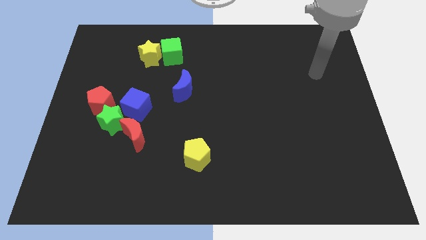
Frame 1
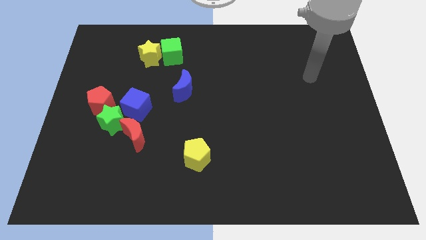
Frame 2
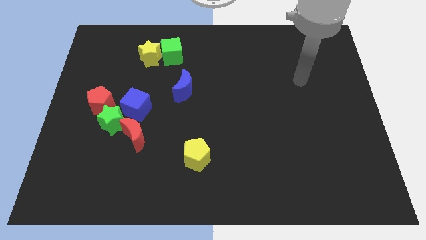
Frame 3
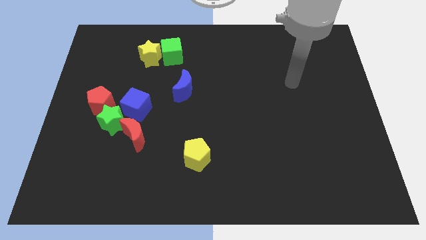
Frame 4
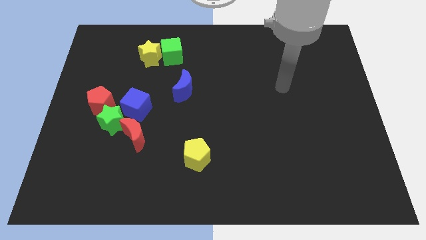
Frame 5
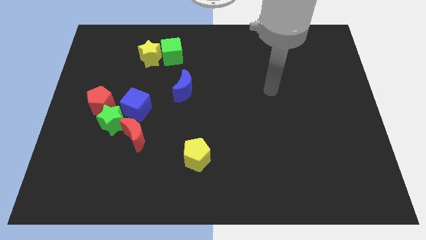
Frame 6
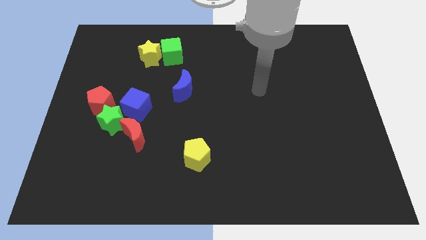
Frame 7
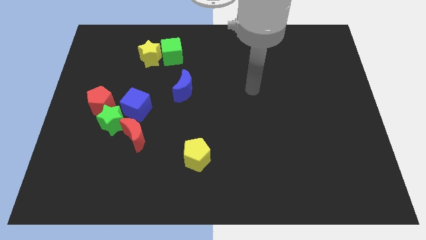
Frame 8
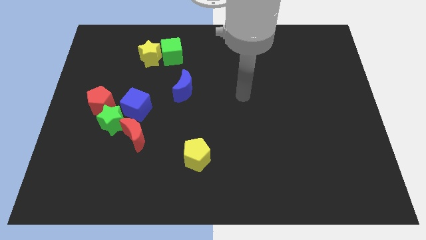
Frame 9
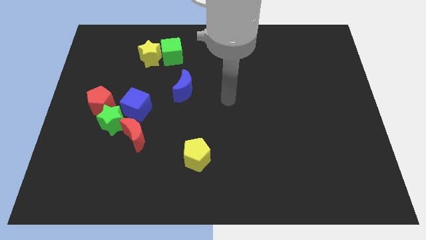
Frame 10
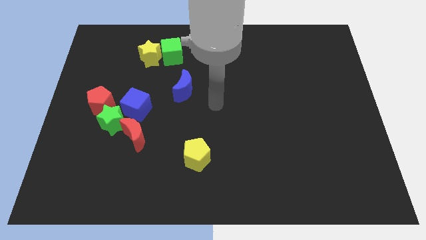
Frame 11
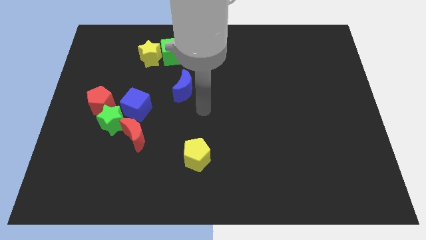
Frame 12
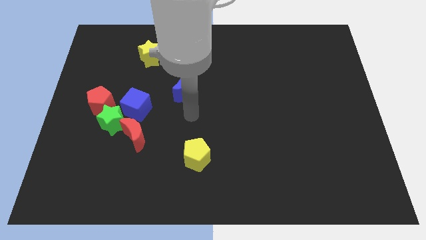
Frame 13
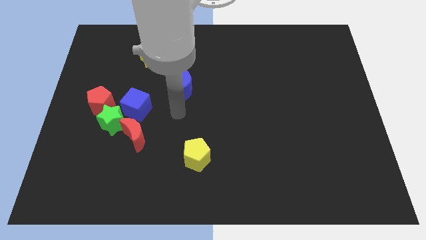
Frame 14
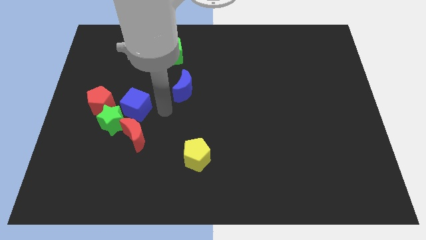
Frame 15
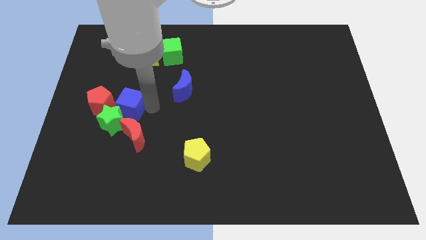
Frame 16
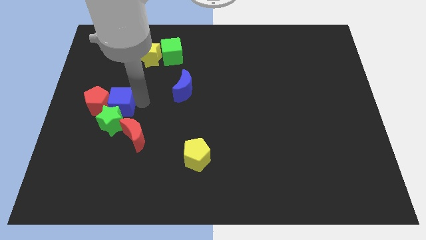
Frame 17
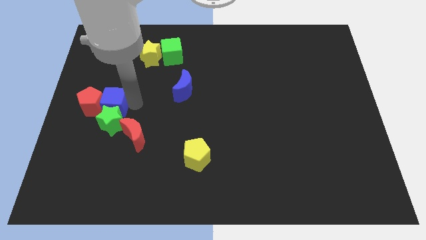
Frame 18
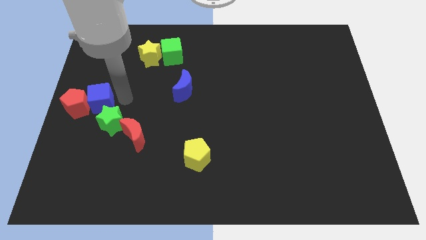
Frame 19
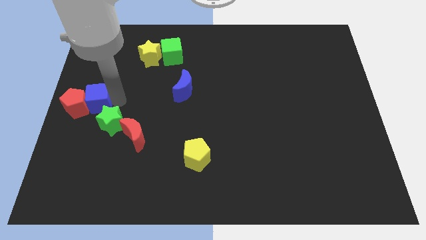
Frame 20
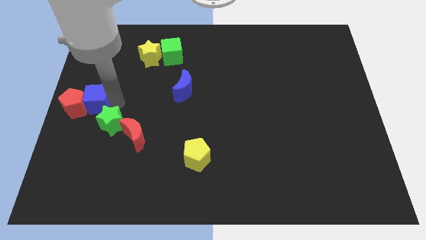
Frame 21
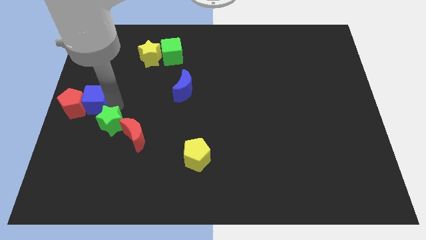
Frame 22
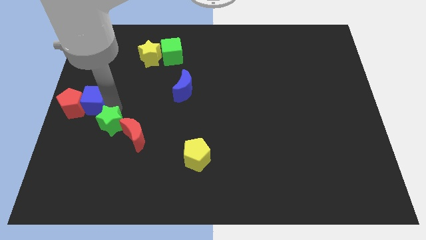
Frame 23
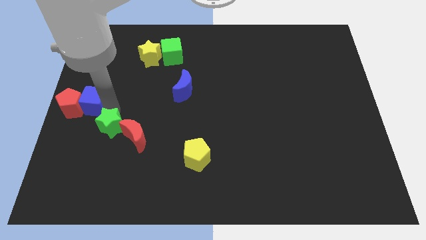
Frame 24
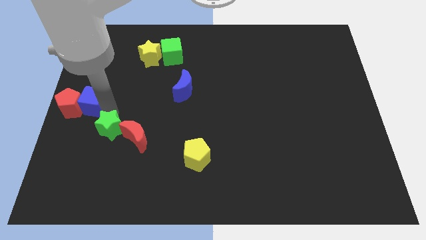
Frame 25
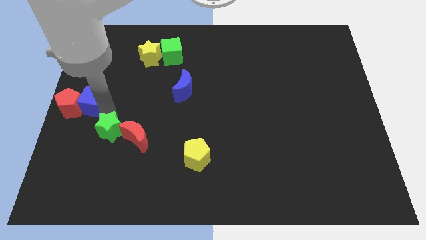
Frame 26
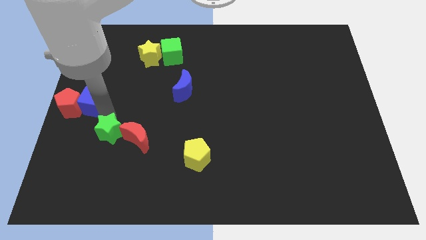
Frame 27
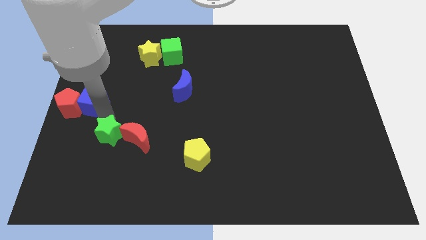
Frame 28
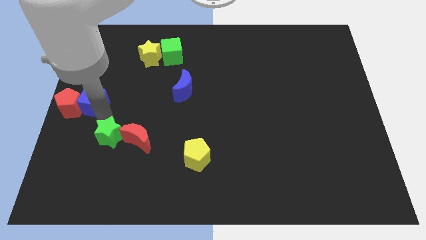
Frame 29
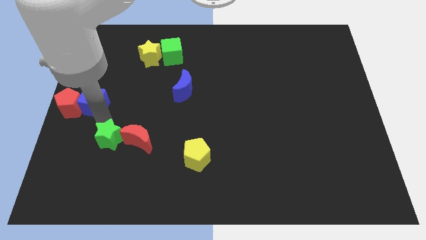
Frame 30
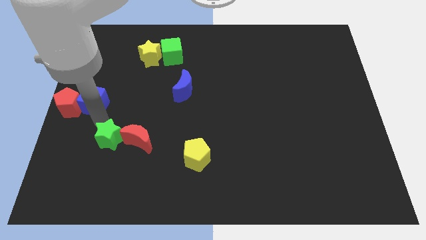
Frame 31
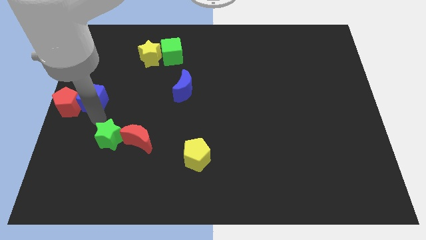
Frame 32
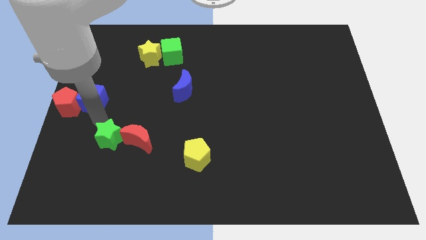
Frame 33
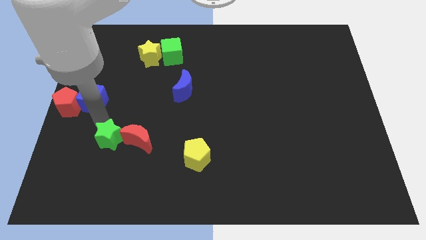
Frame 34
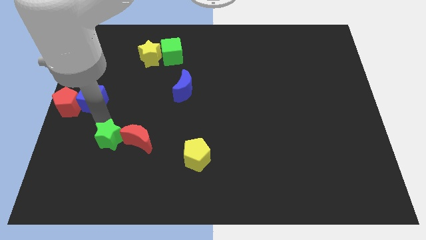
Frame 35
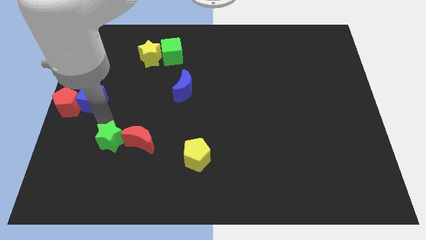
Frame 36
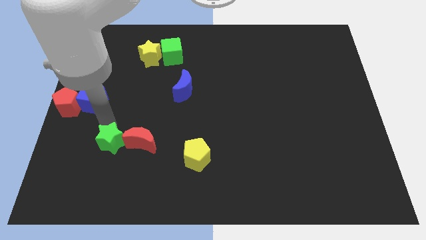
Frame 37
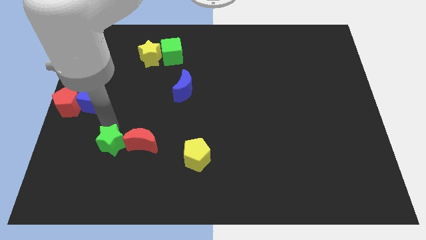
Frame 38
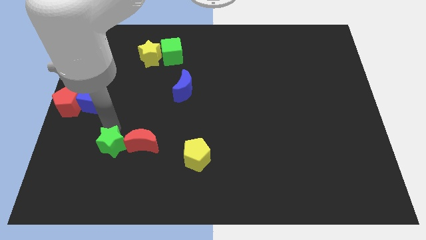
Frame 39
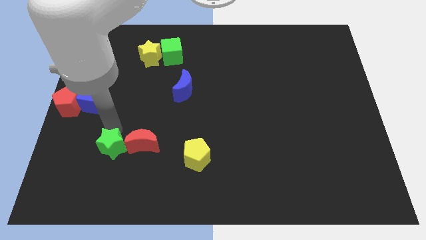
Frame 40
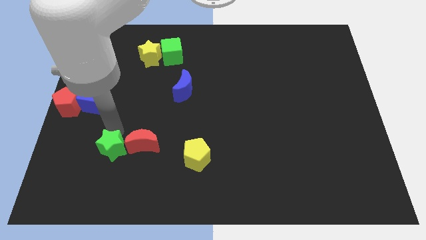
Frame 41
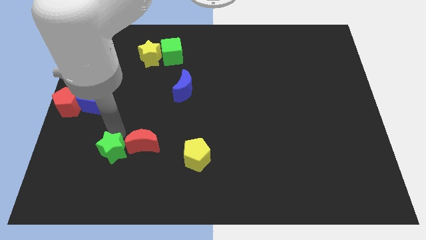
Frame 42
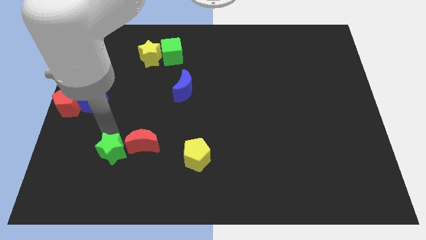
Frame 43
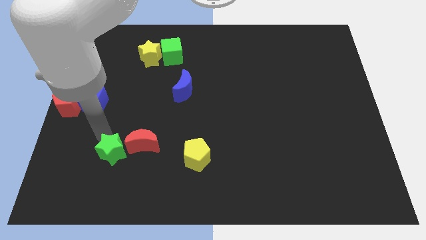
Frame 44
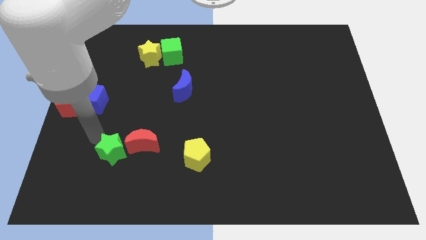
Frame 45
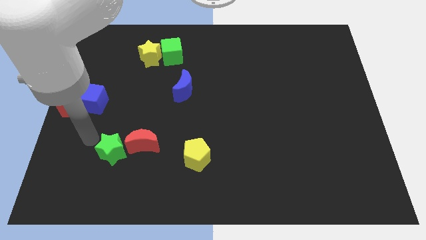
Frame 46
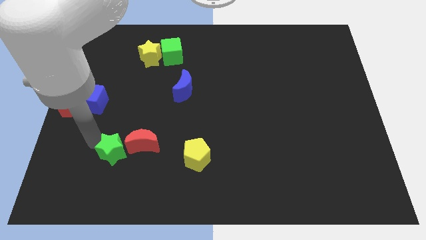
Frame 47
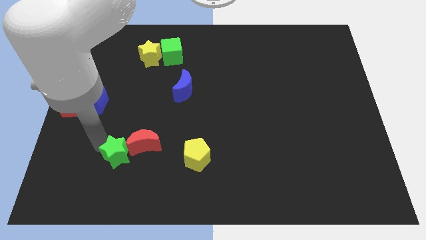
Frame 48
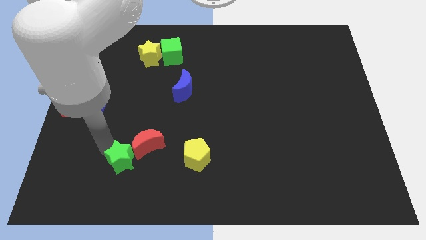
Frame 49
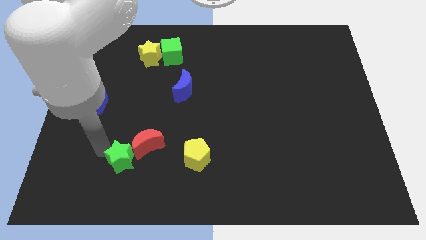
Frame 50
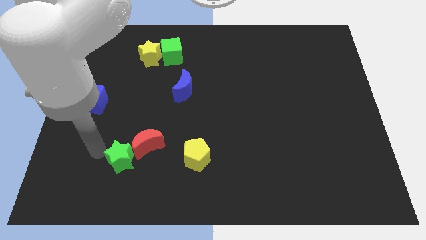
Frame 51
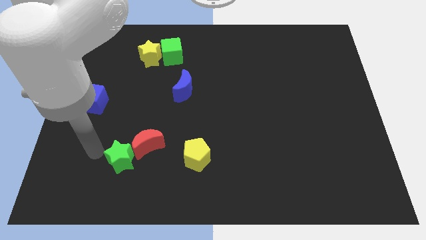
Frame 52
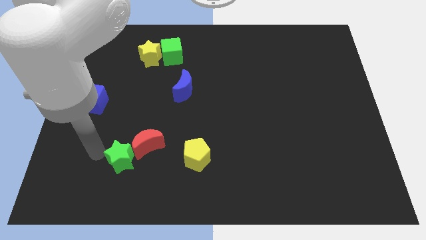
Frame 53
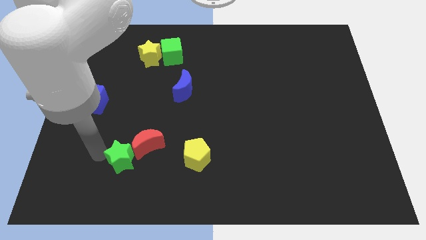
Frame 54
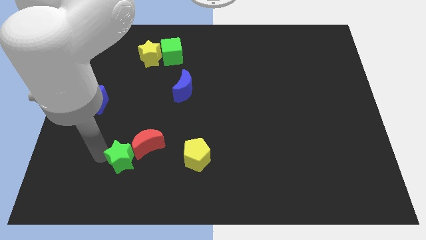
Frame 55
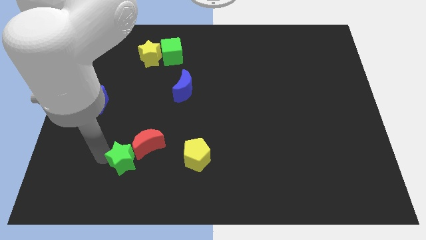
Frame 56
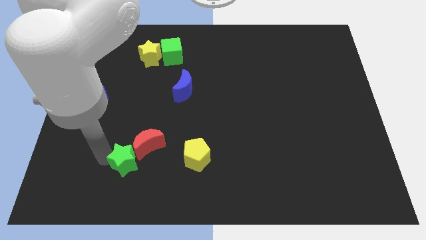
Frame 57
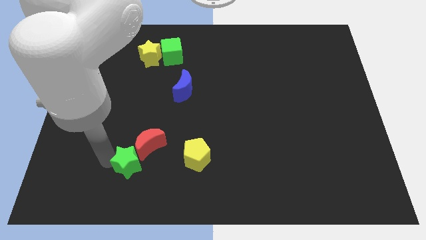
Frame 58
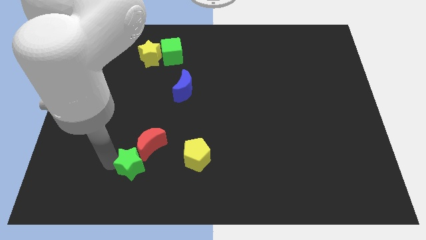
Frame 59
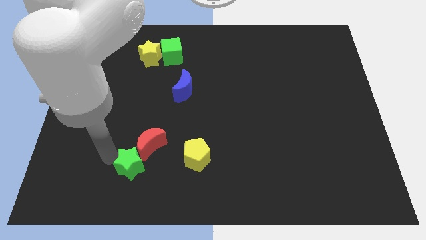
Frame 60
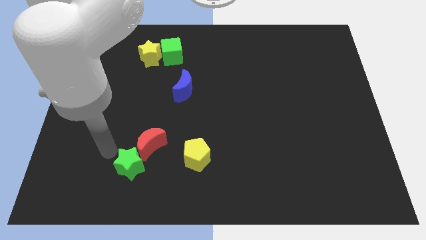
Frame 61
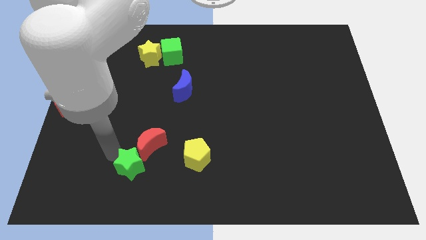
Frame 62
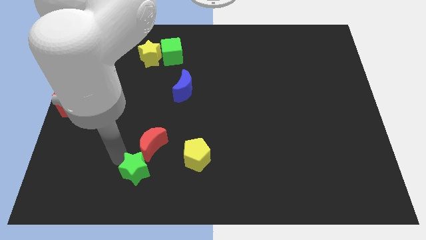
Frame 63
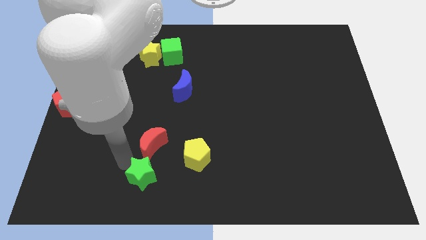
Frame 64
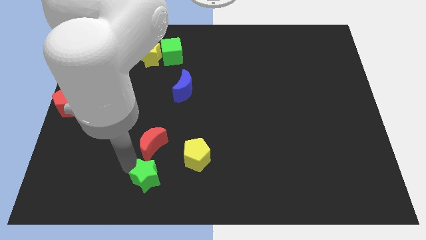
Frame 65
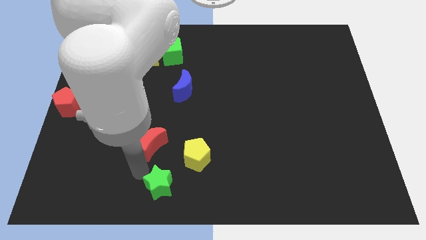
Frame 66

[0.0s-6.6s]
slide the green star to the bottom side
